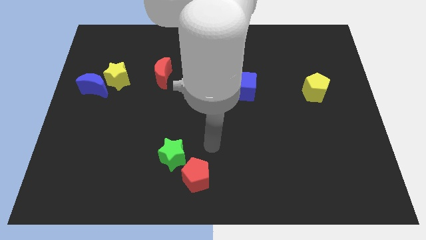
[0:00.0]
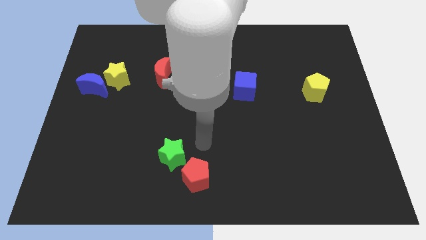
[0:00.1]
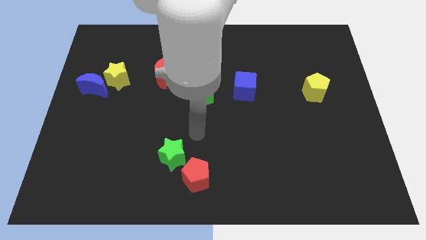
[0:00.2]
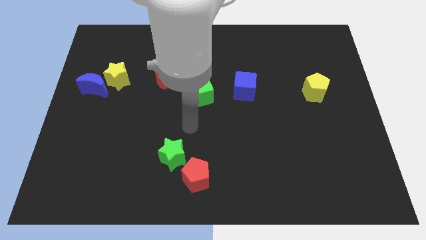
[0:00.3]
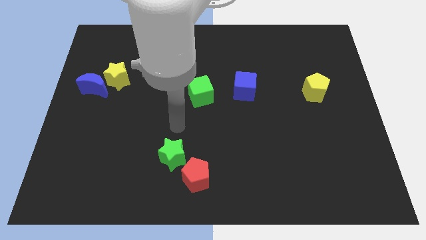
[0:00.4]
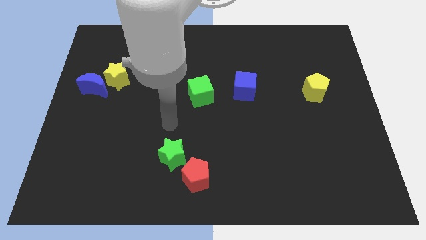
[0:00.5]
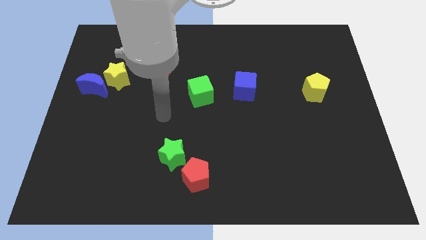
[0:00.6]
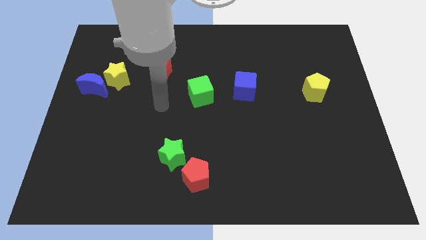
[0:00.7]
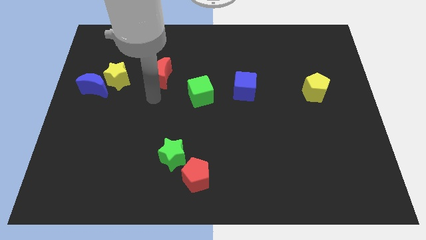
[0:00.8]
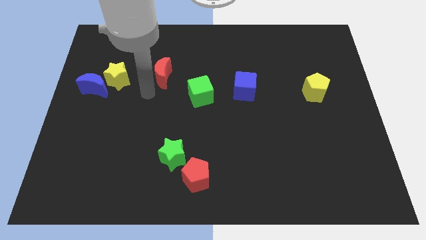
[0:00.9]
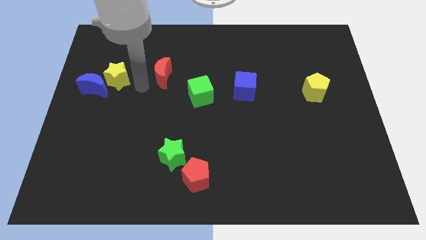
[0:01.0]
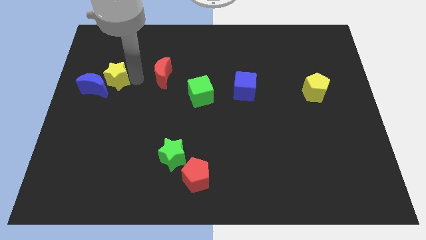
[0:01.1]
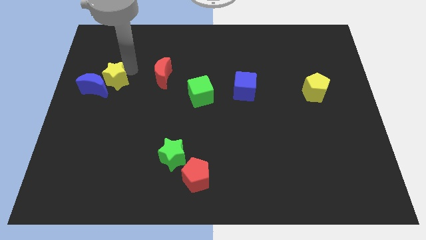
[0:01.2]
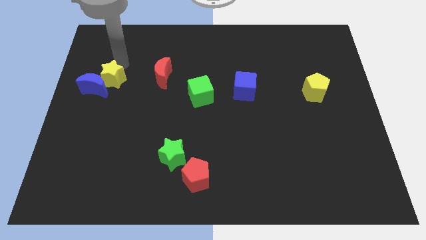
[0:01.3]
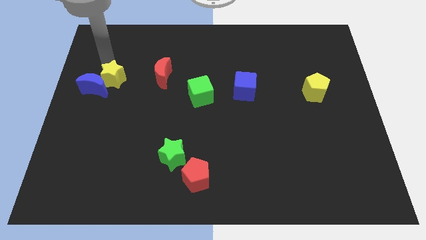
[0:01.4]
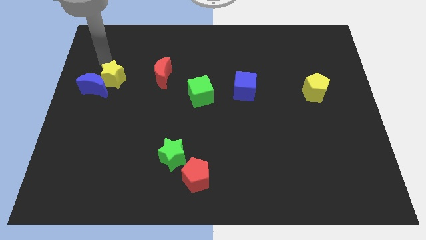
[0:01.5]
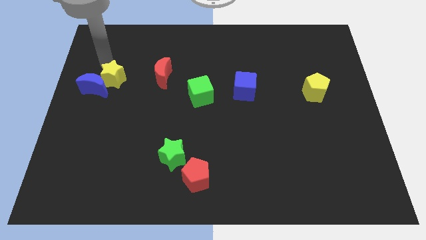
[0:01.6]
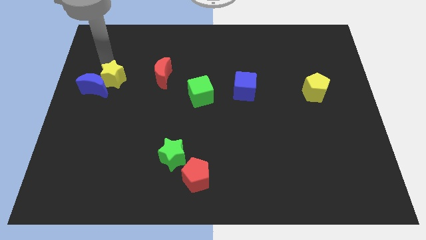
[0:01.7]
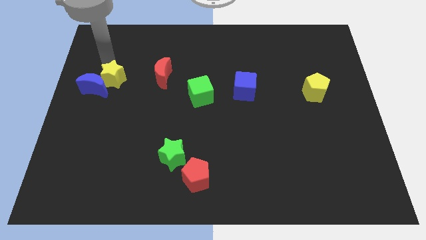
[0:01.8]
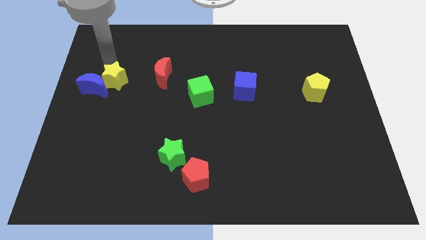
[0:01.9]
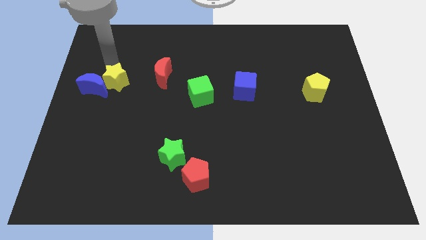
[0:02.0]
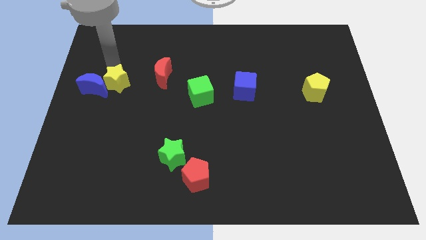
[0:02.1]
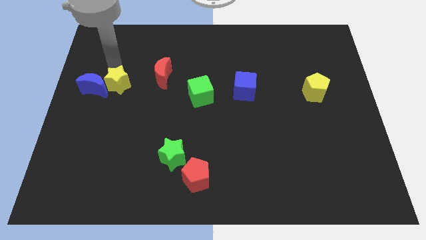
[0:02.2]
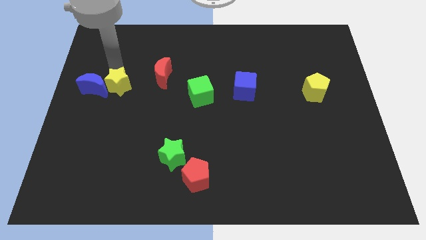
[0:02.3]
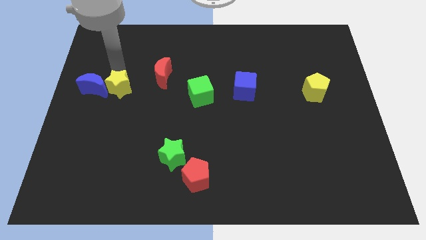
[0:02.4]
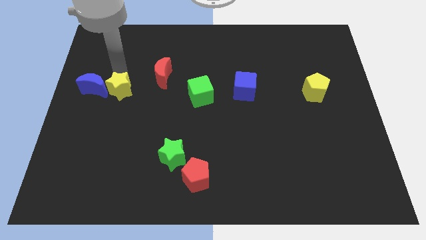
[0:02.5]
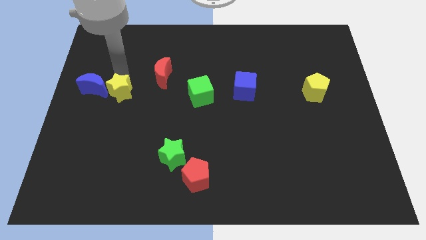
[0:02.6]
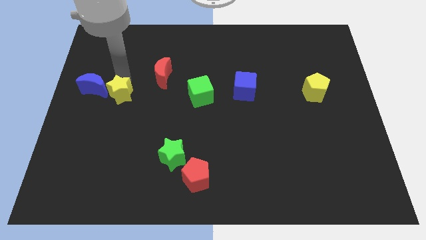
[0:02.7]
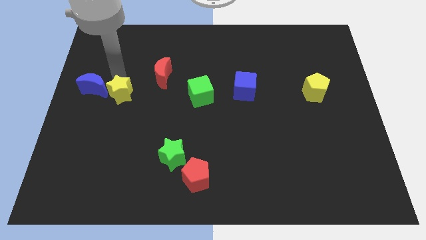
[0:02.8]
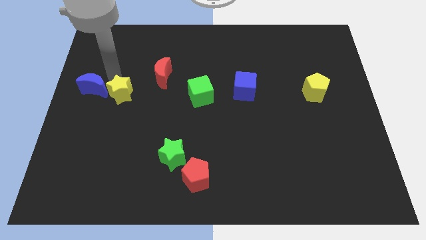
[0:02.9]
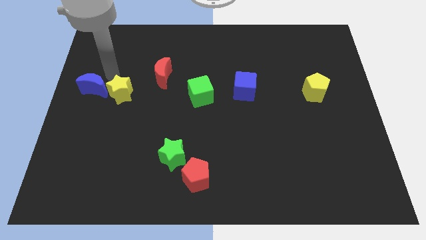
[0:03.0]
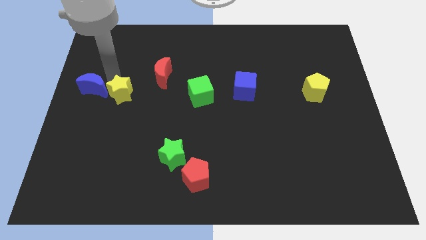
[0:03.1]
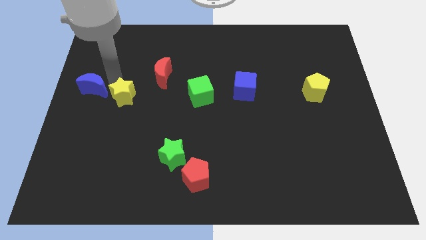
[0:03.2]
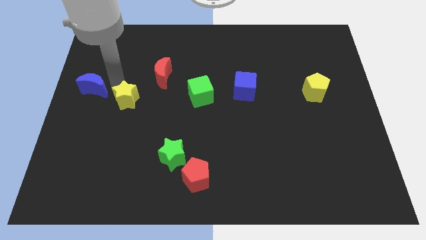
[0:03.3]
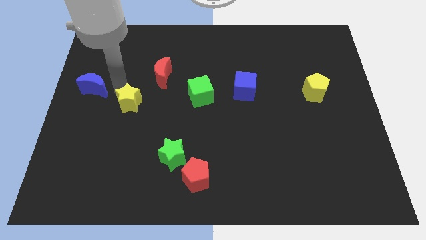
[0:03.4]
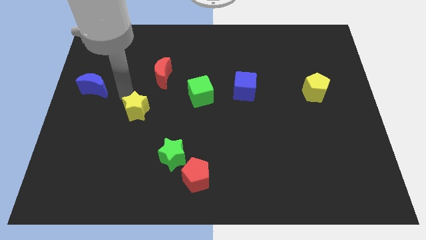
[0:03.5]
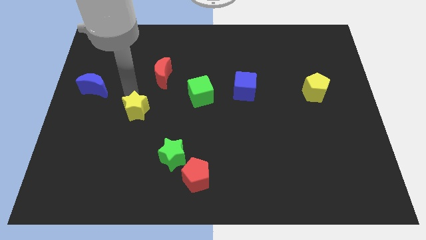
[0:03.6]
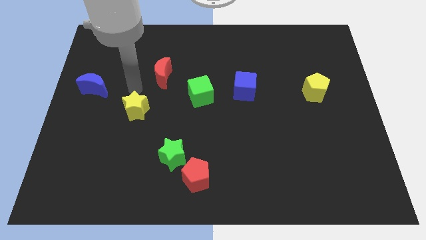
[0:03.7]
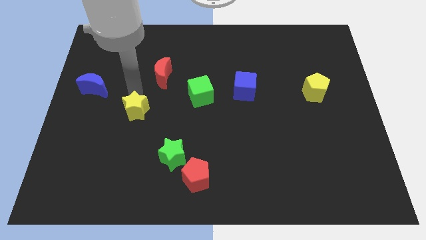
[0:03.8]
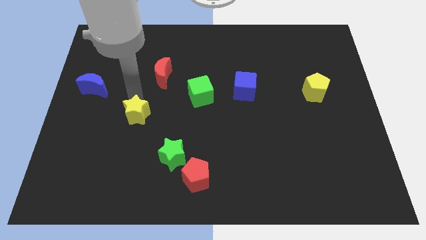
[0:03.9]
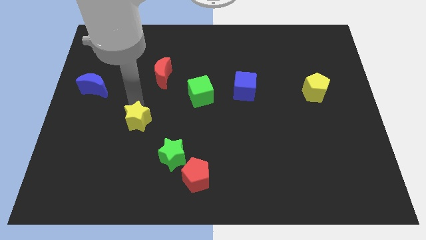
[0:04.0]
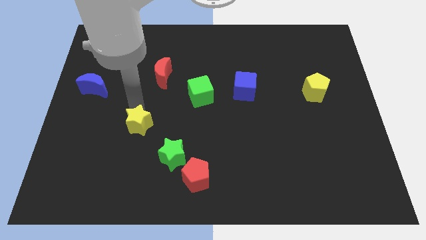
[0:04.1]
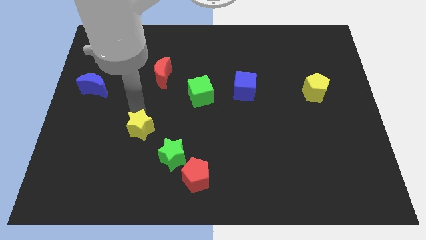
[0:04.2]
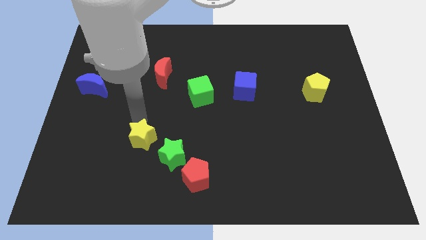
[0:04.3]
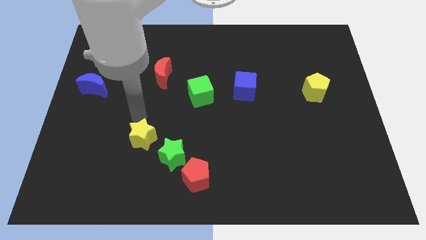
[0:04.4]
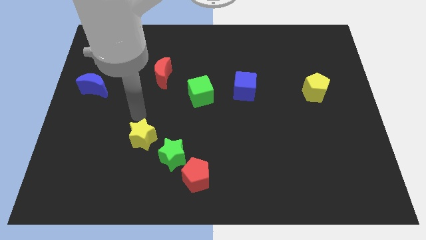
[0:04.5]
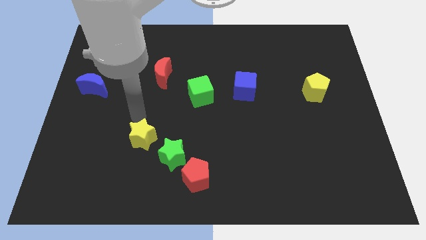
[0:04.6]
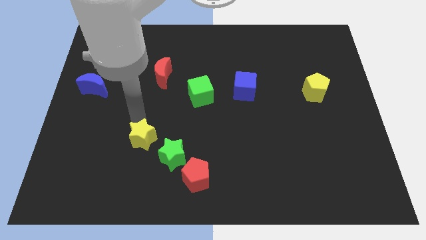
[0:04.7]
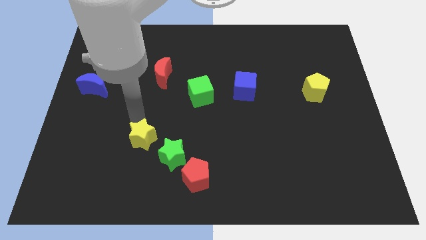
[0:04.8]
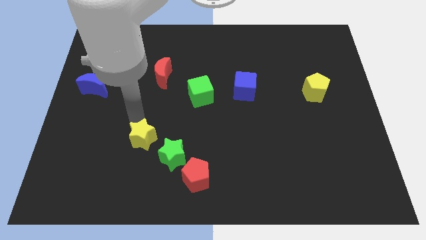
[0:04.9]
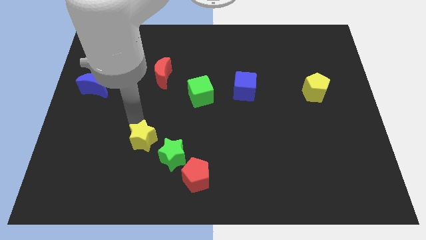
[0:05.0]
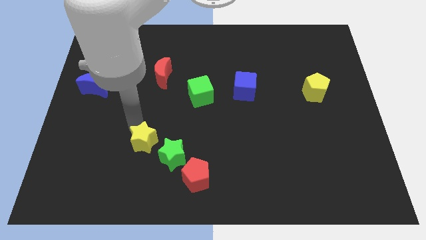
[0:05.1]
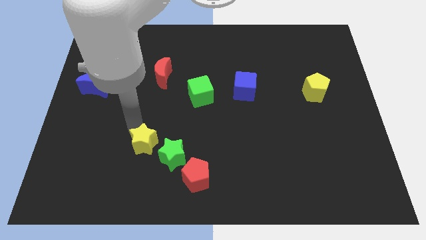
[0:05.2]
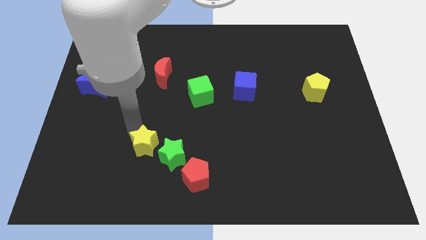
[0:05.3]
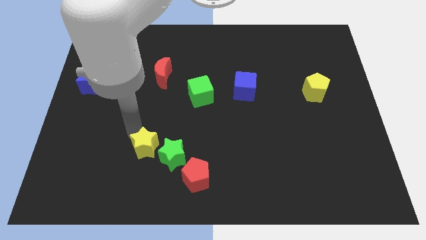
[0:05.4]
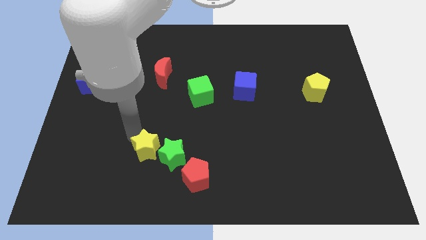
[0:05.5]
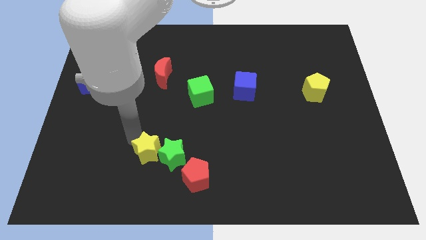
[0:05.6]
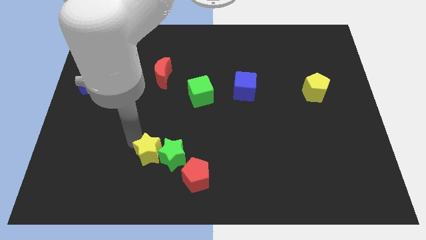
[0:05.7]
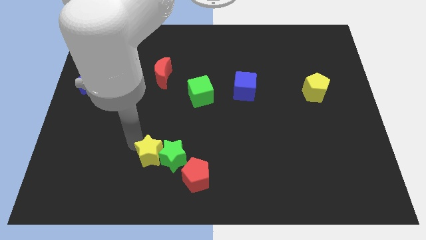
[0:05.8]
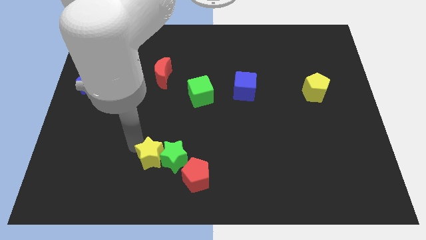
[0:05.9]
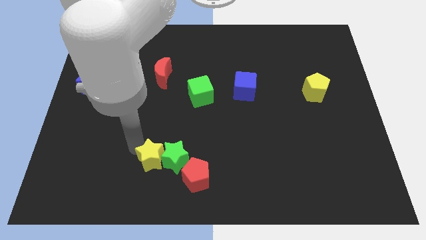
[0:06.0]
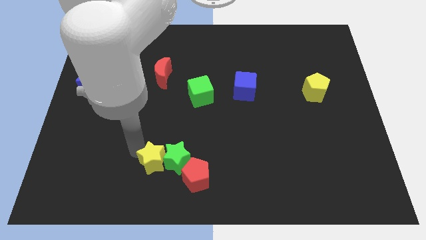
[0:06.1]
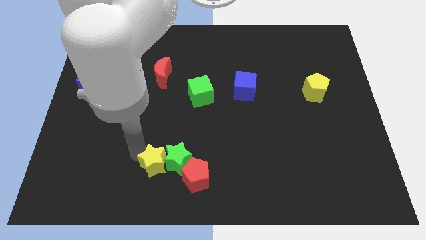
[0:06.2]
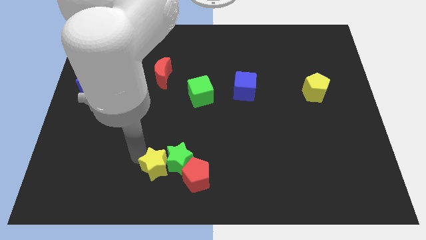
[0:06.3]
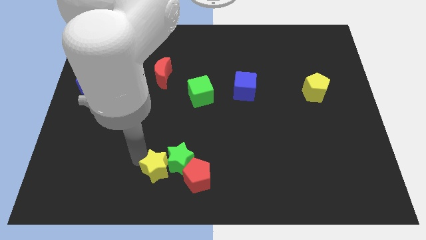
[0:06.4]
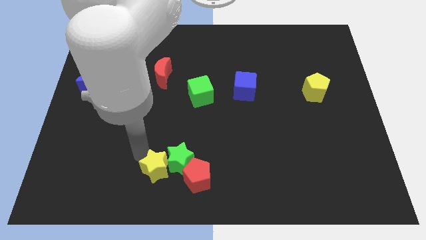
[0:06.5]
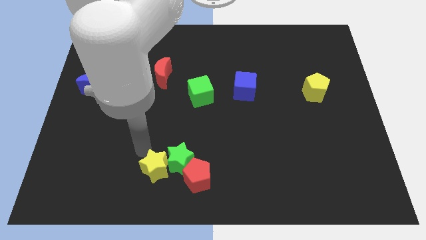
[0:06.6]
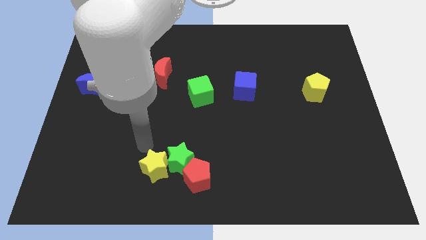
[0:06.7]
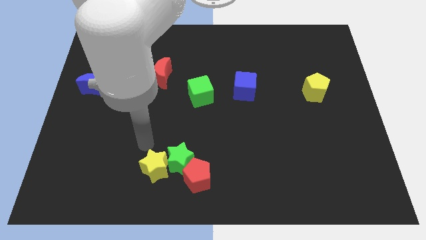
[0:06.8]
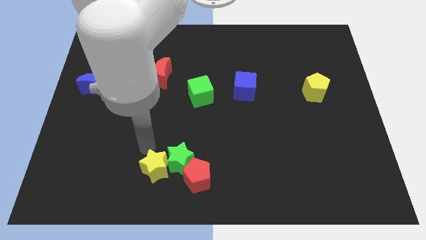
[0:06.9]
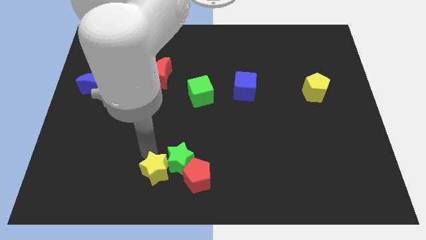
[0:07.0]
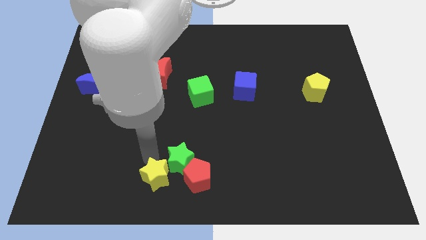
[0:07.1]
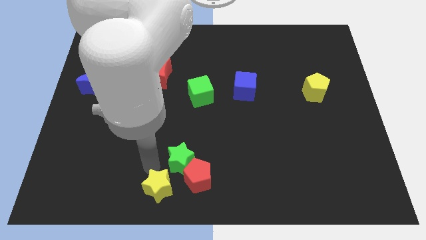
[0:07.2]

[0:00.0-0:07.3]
push the yellow star to the bottom side

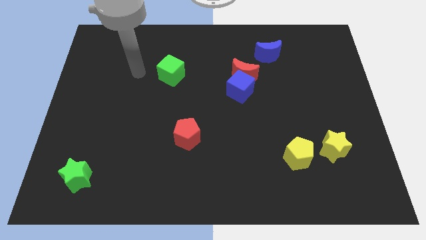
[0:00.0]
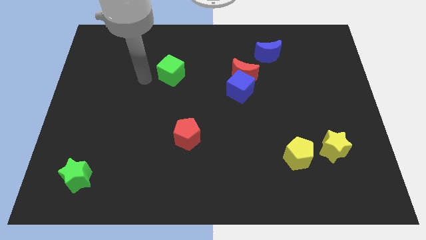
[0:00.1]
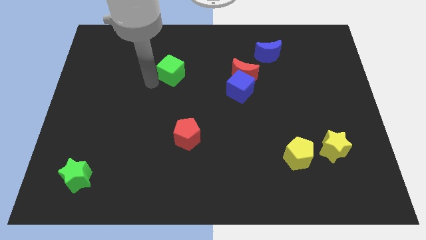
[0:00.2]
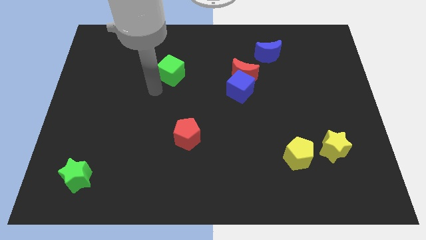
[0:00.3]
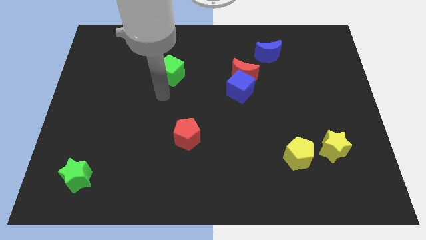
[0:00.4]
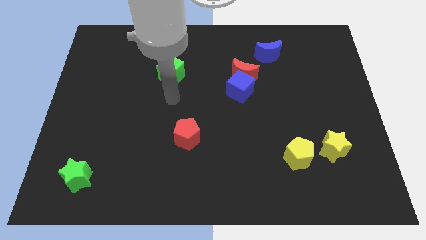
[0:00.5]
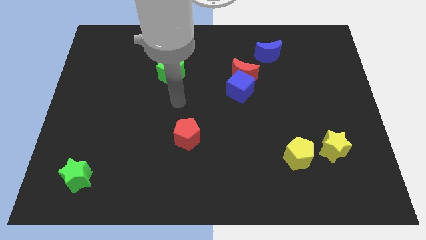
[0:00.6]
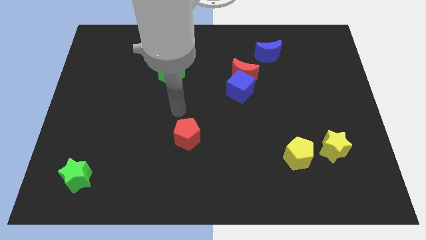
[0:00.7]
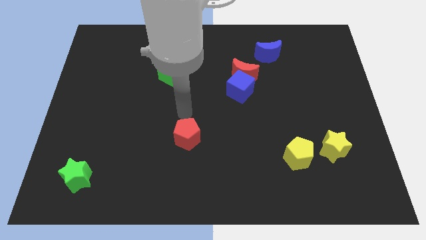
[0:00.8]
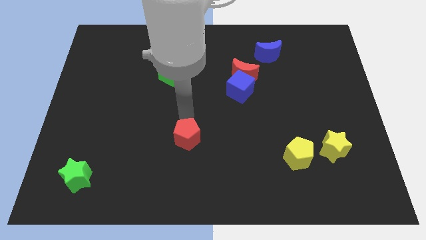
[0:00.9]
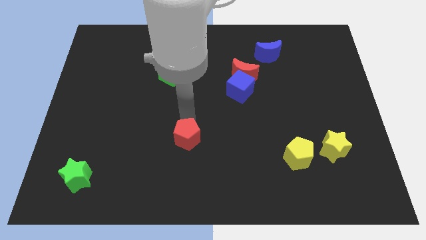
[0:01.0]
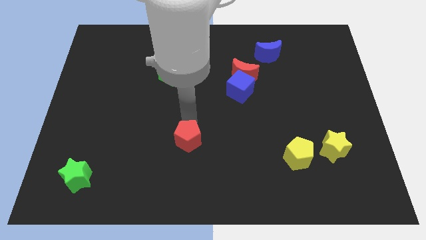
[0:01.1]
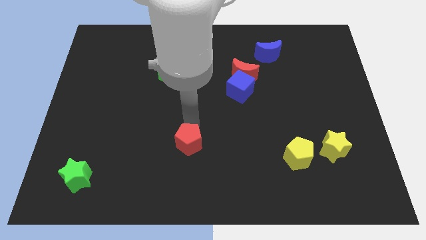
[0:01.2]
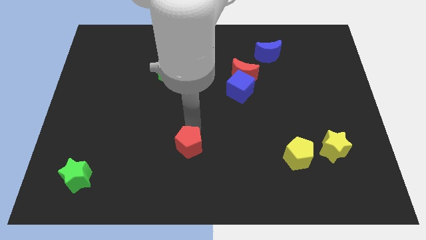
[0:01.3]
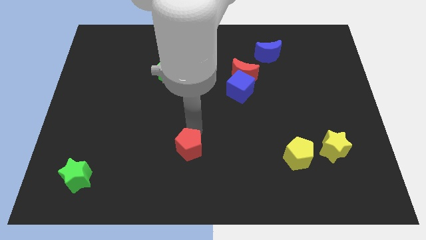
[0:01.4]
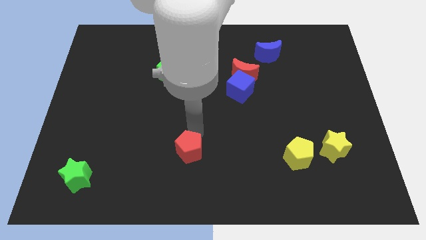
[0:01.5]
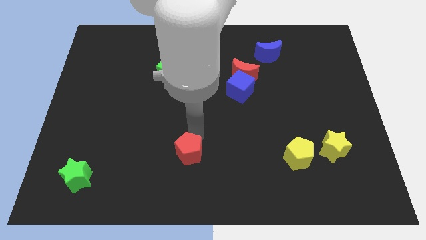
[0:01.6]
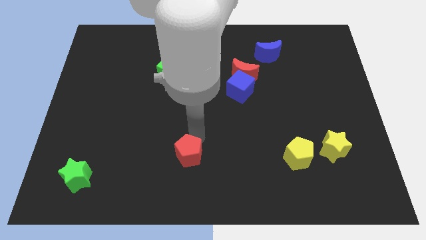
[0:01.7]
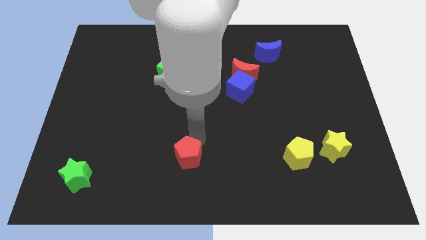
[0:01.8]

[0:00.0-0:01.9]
move the red pentagon to the bottom side
